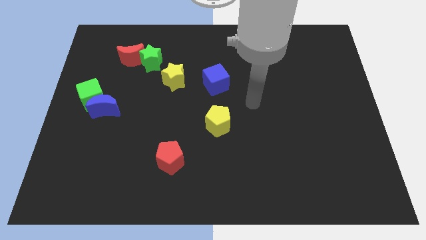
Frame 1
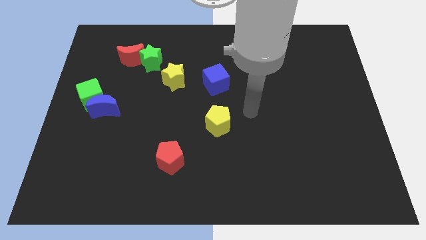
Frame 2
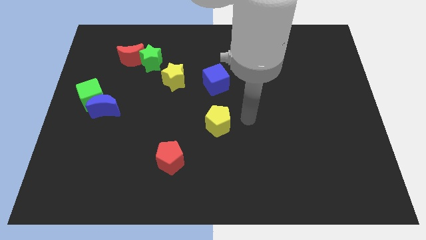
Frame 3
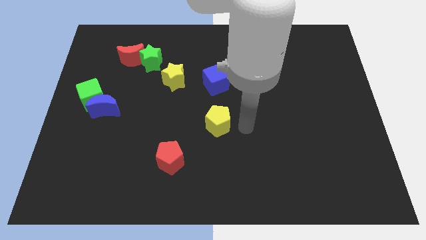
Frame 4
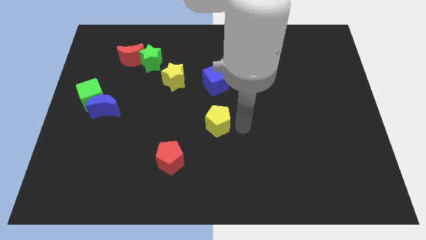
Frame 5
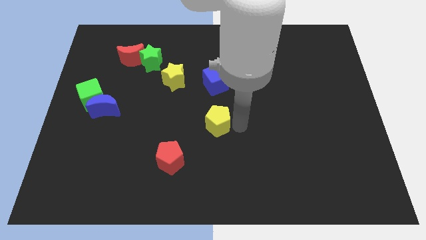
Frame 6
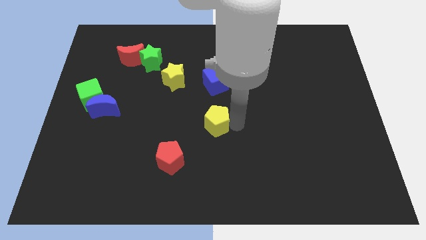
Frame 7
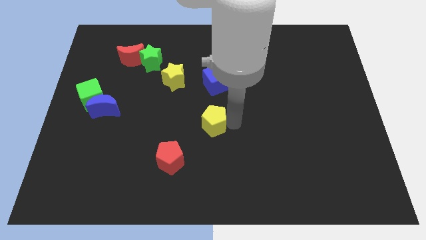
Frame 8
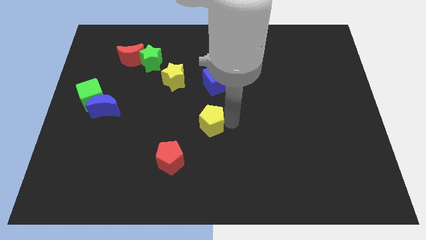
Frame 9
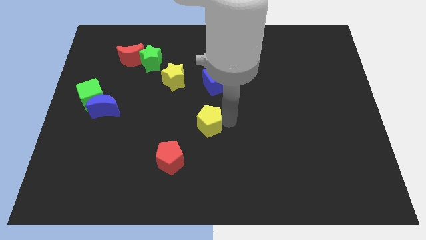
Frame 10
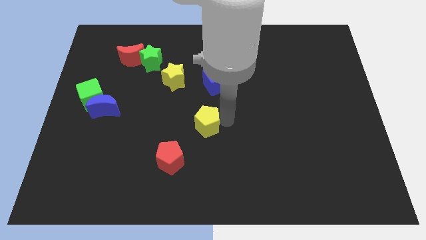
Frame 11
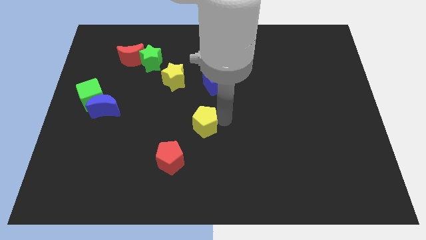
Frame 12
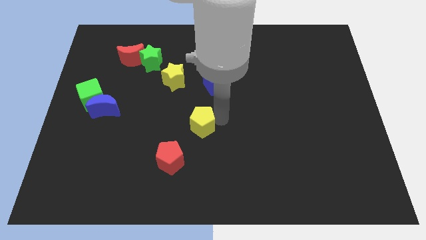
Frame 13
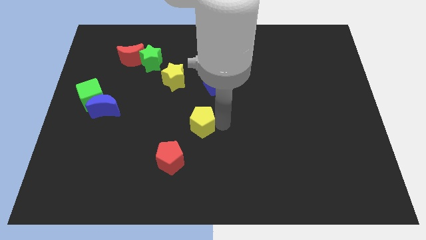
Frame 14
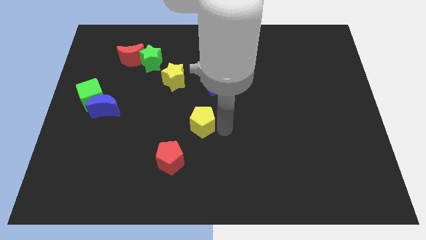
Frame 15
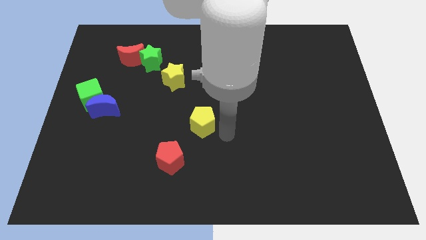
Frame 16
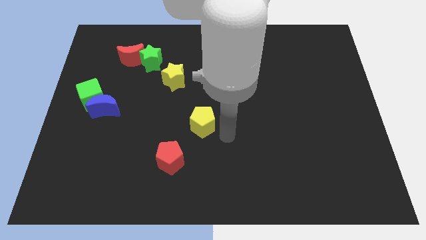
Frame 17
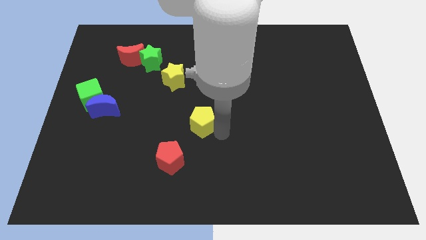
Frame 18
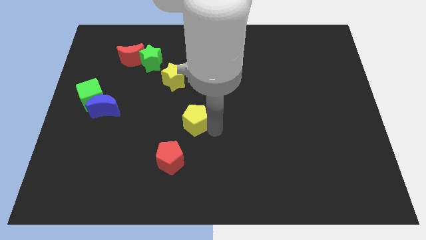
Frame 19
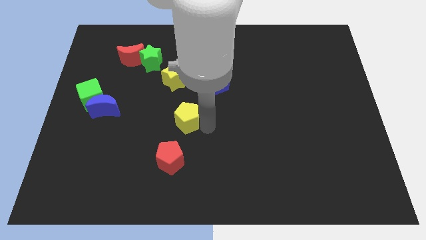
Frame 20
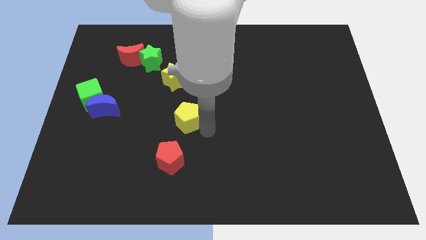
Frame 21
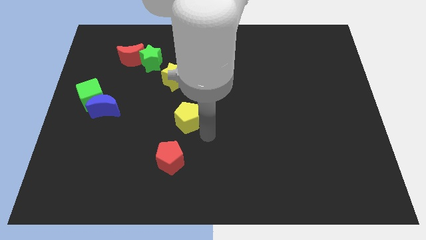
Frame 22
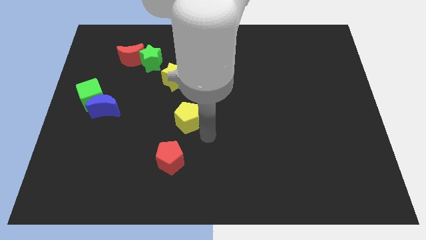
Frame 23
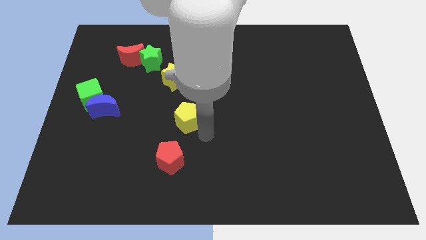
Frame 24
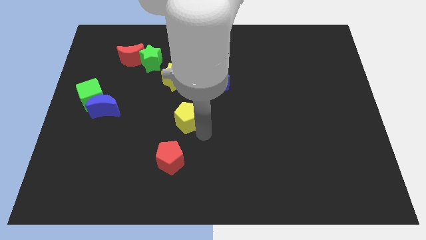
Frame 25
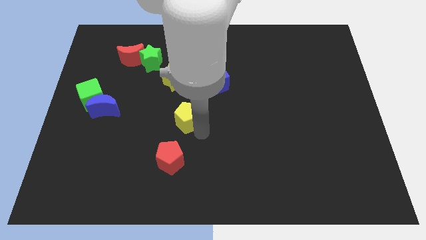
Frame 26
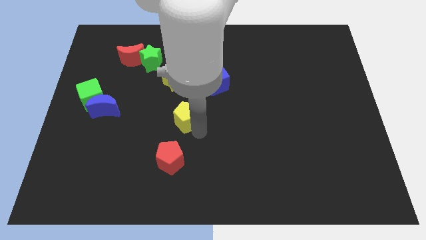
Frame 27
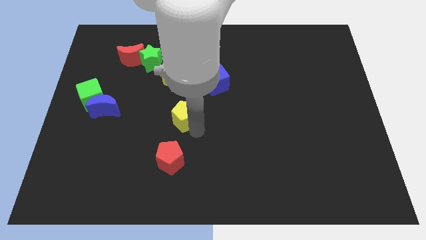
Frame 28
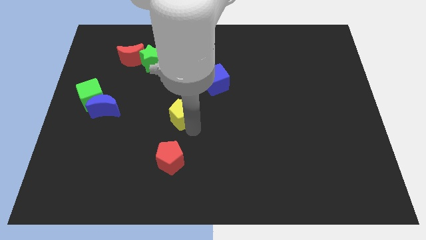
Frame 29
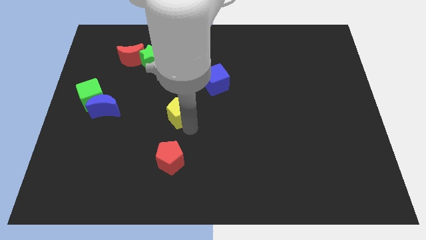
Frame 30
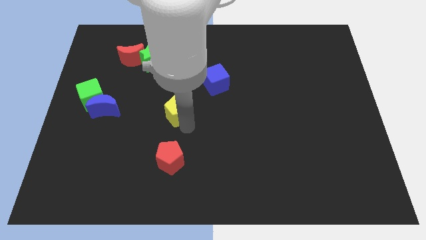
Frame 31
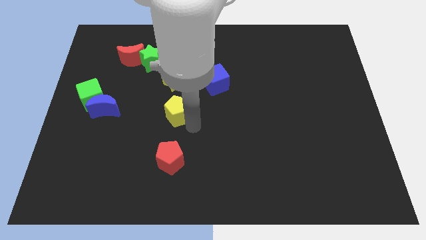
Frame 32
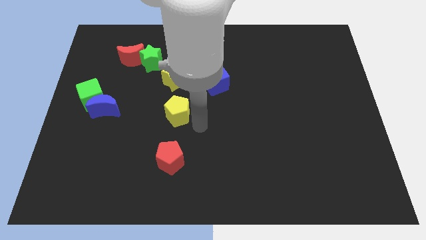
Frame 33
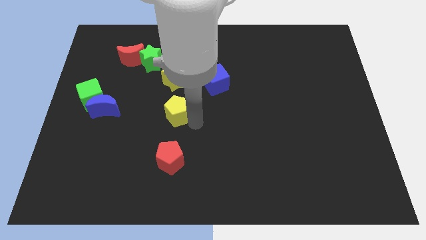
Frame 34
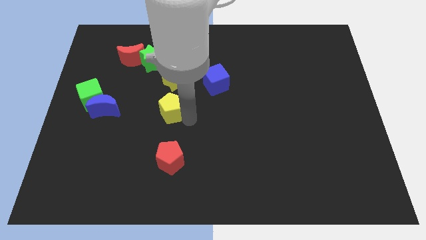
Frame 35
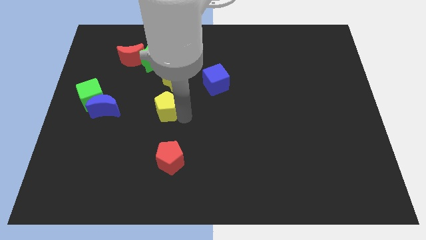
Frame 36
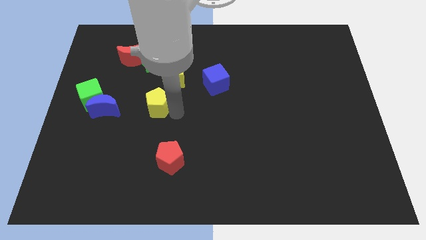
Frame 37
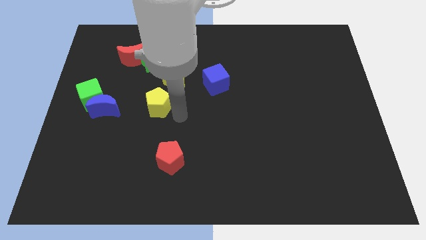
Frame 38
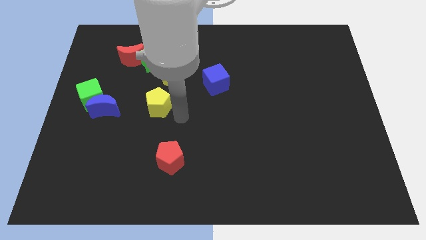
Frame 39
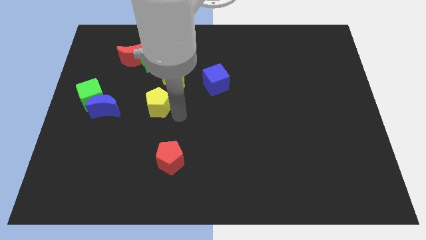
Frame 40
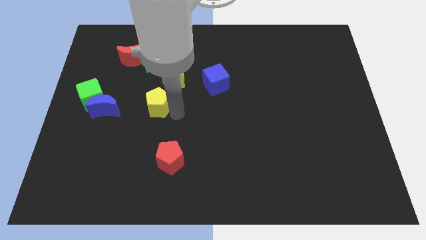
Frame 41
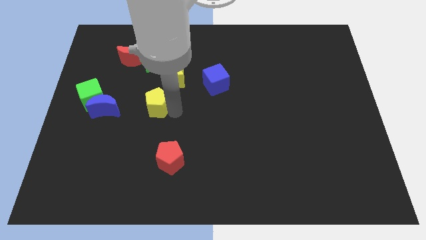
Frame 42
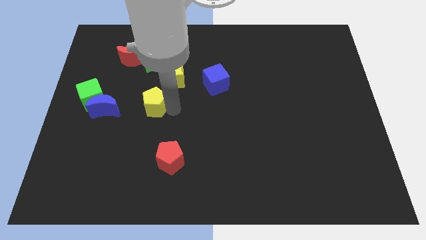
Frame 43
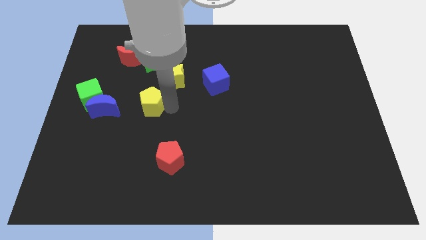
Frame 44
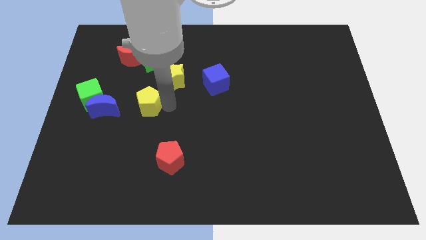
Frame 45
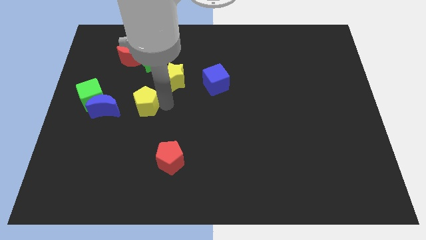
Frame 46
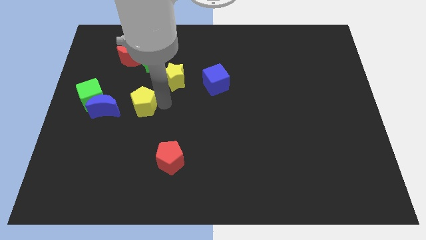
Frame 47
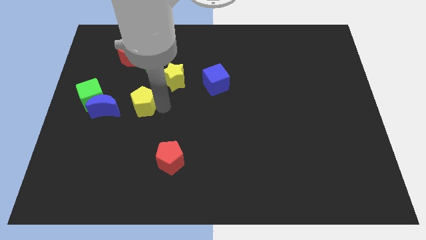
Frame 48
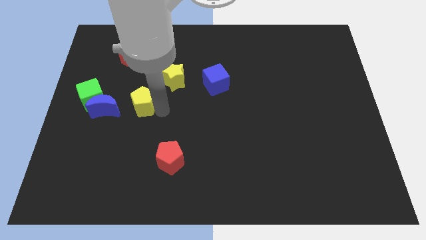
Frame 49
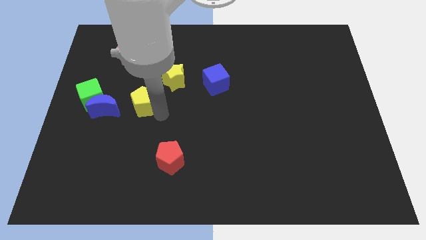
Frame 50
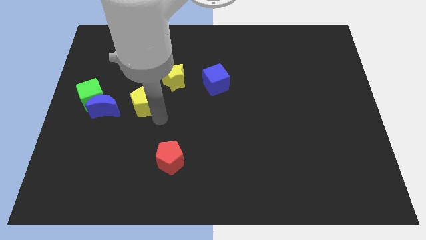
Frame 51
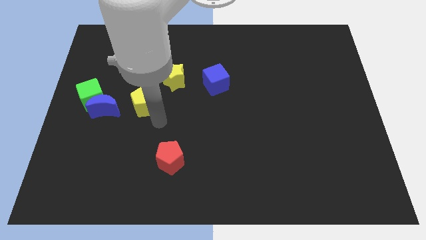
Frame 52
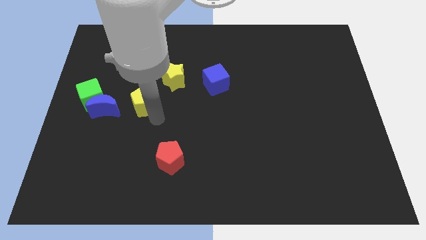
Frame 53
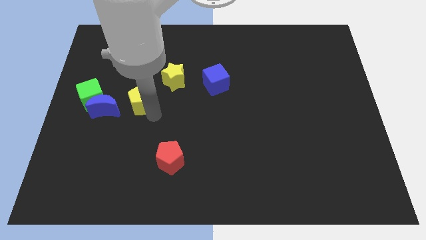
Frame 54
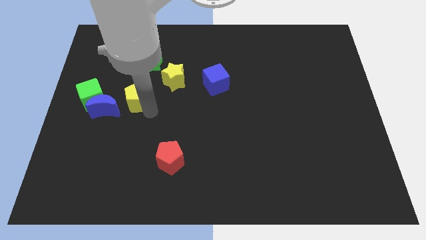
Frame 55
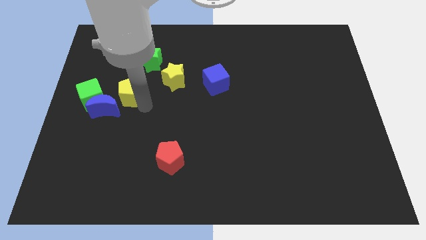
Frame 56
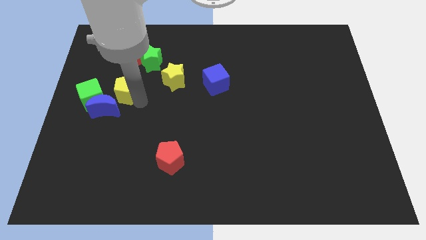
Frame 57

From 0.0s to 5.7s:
move the yellow pentagon diagonally up and to the right of the green cube

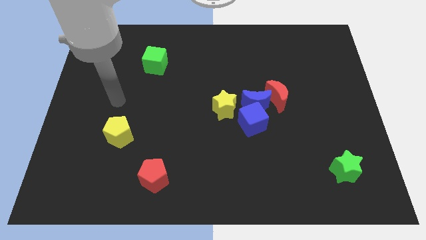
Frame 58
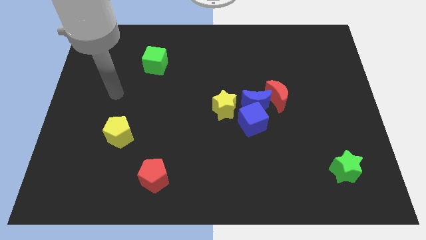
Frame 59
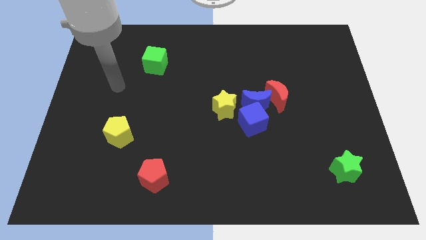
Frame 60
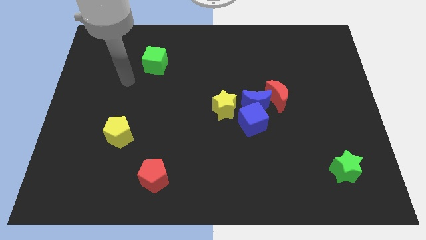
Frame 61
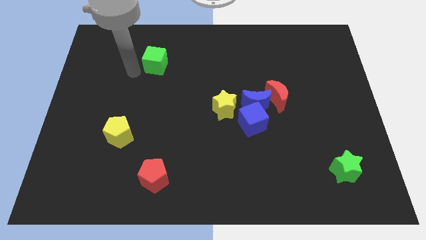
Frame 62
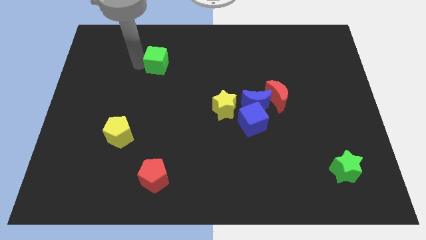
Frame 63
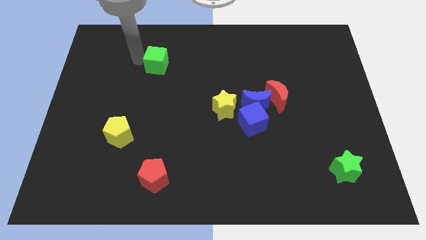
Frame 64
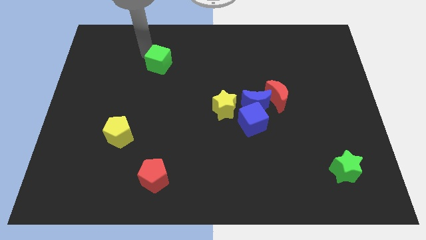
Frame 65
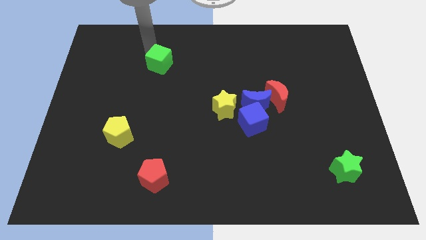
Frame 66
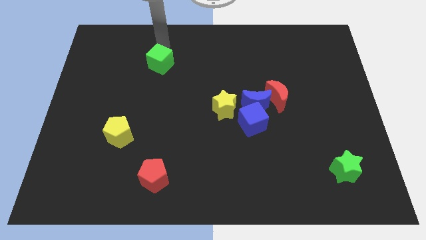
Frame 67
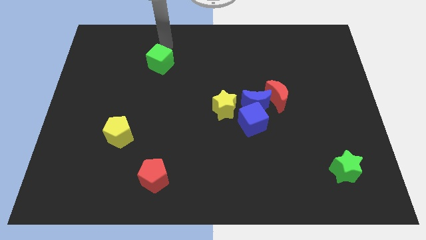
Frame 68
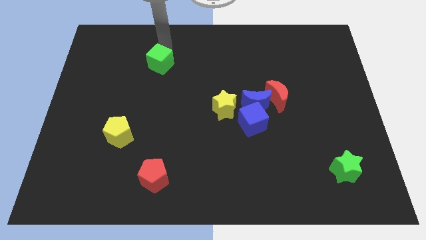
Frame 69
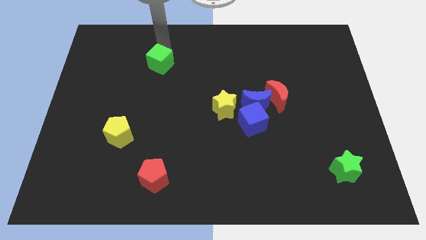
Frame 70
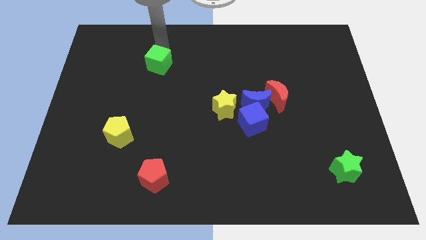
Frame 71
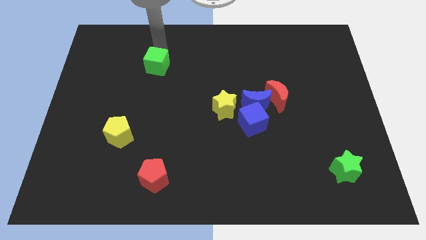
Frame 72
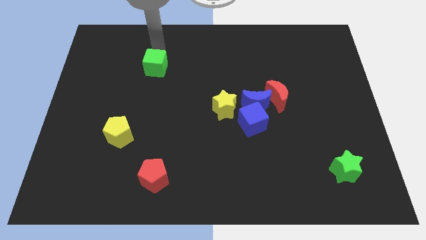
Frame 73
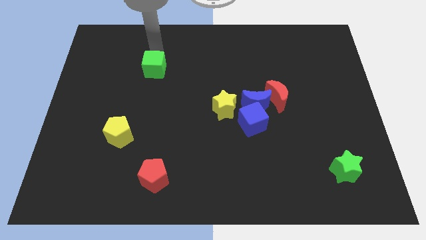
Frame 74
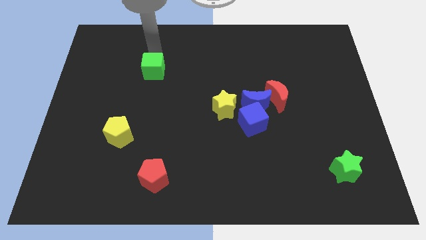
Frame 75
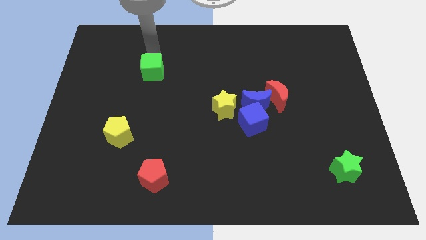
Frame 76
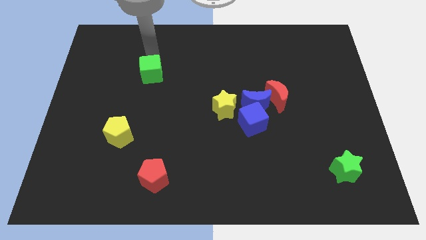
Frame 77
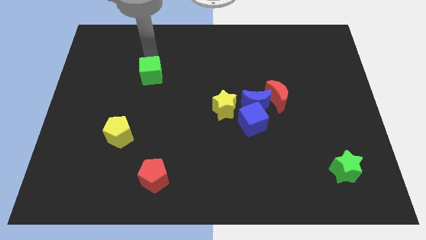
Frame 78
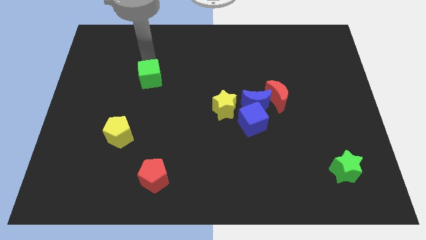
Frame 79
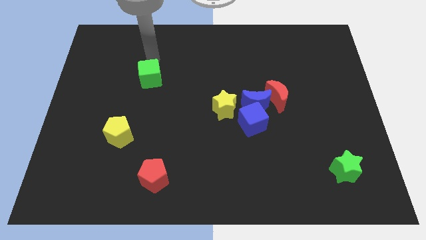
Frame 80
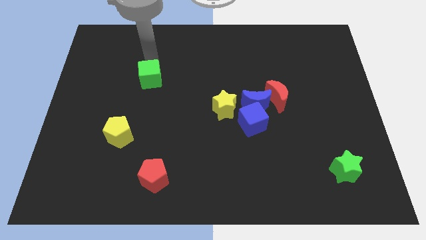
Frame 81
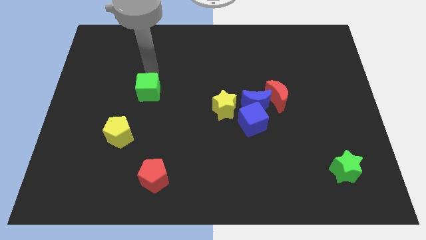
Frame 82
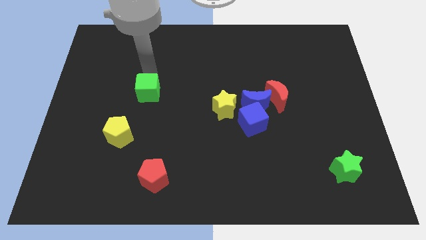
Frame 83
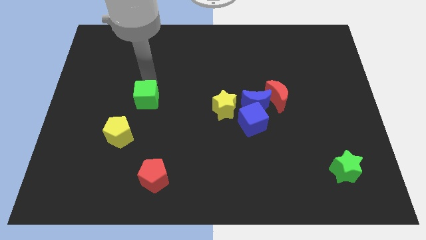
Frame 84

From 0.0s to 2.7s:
move the green cube to the top right side of the yellow pentagon
